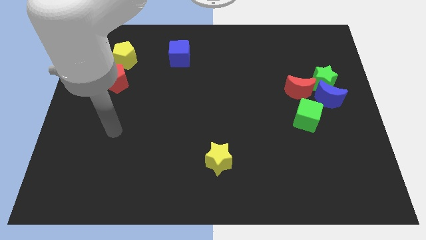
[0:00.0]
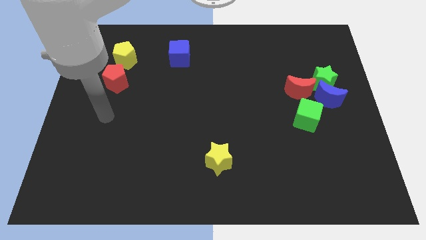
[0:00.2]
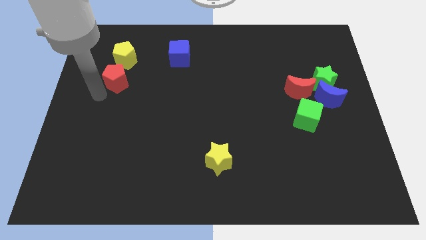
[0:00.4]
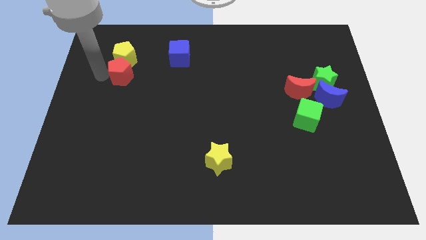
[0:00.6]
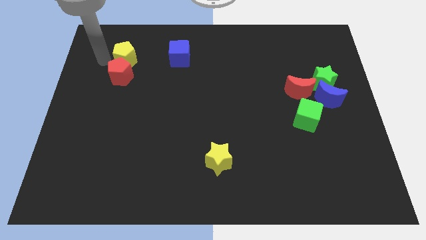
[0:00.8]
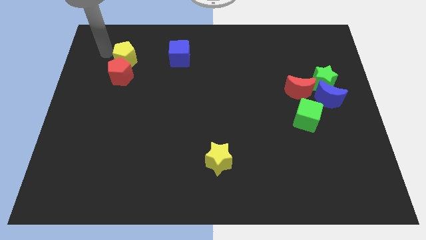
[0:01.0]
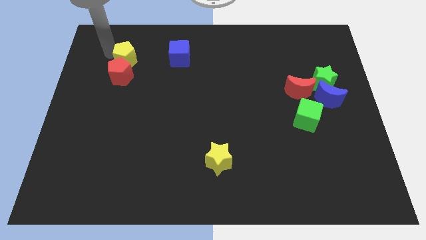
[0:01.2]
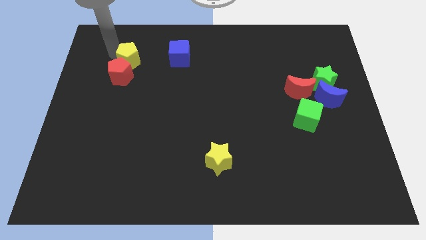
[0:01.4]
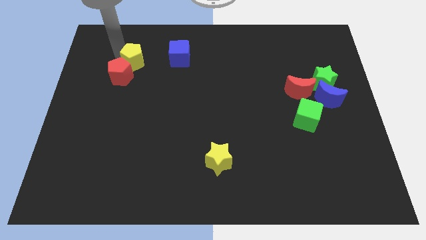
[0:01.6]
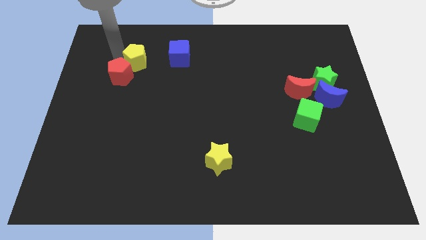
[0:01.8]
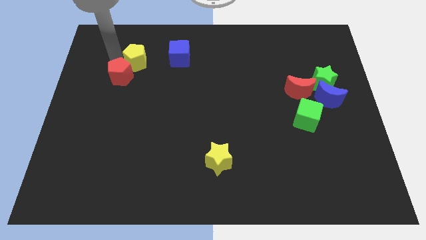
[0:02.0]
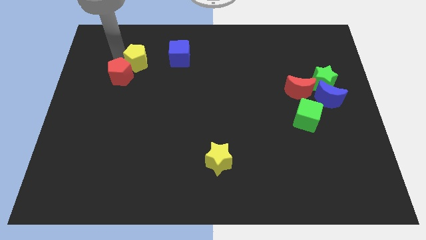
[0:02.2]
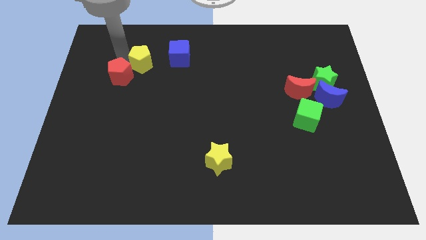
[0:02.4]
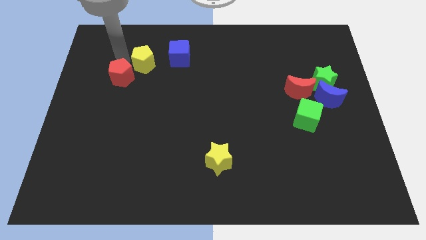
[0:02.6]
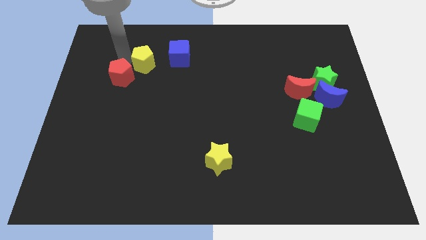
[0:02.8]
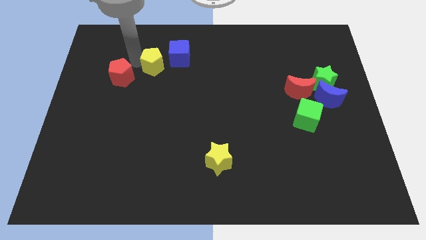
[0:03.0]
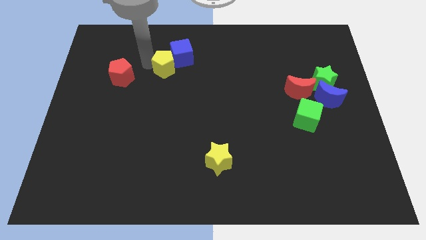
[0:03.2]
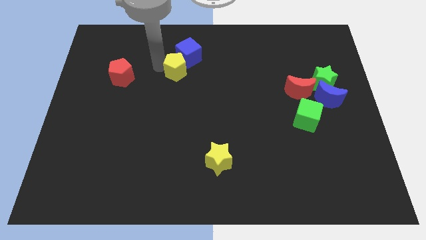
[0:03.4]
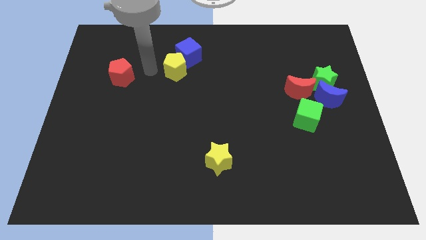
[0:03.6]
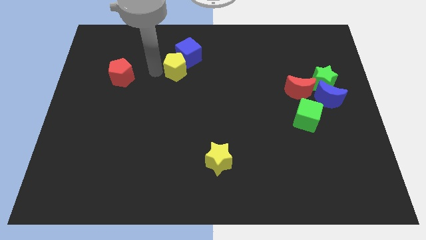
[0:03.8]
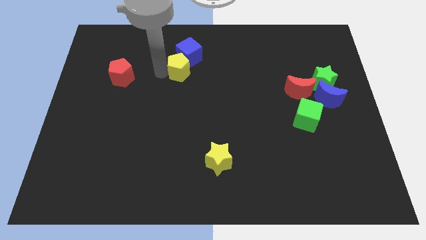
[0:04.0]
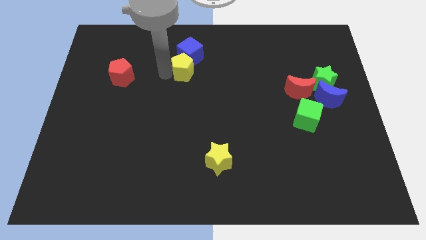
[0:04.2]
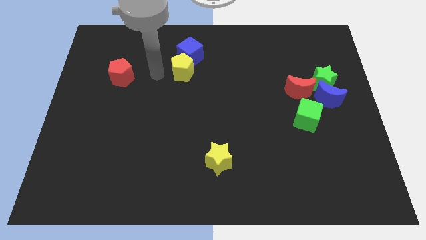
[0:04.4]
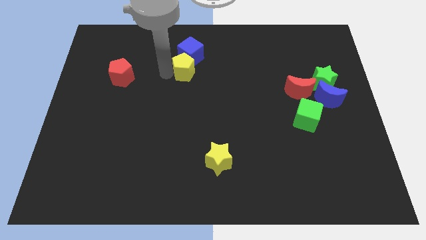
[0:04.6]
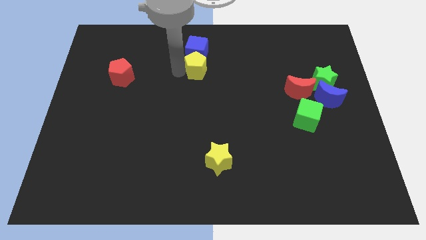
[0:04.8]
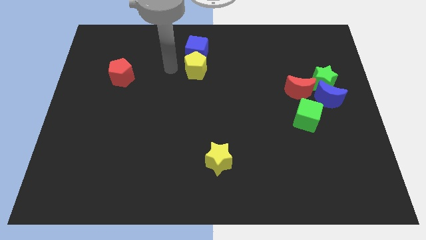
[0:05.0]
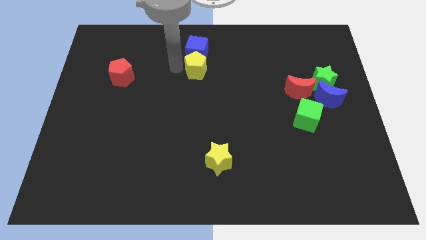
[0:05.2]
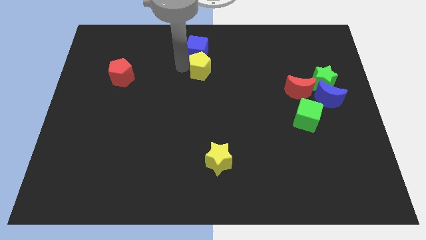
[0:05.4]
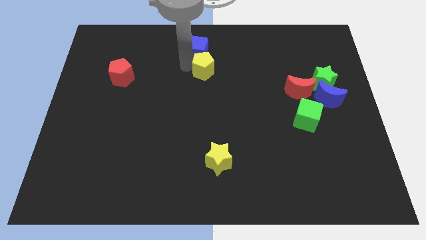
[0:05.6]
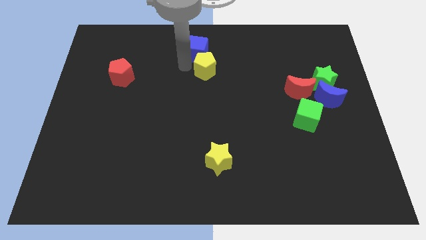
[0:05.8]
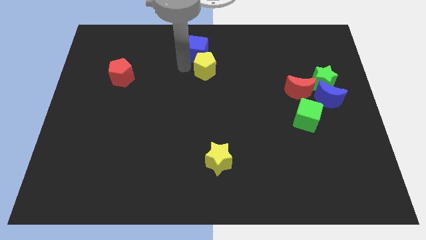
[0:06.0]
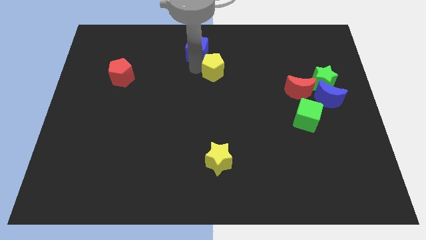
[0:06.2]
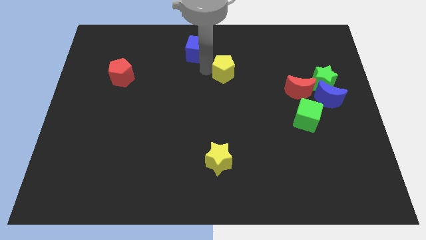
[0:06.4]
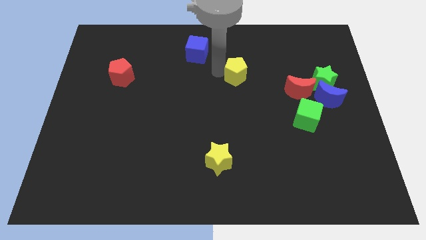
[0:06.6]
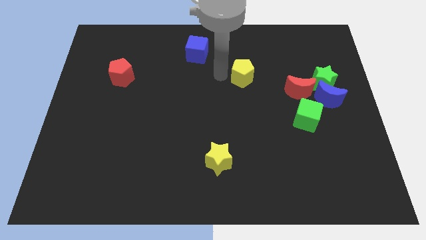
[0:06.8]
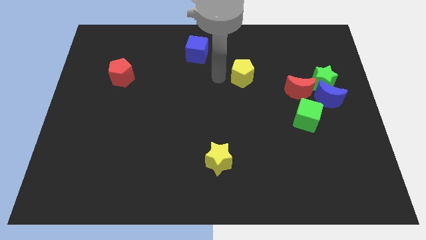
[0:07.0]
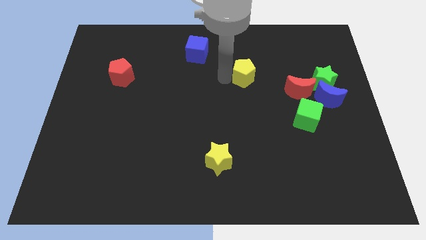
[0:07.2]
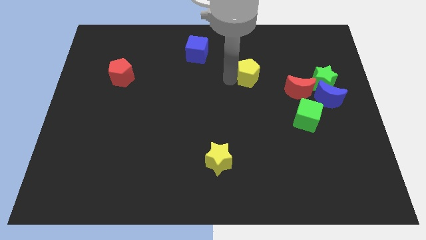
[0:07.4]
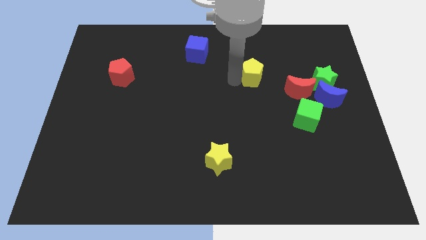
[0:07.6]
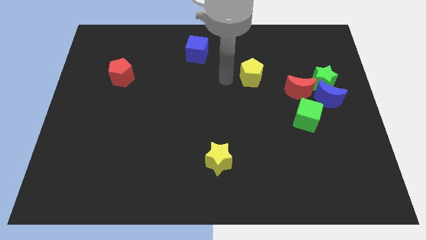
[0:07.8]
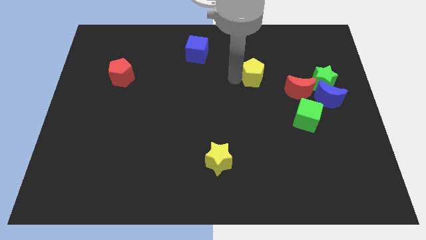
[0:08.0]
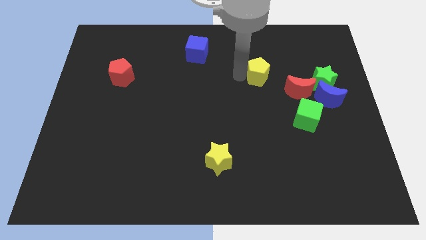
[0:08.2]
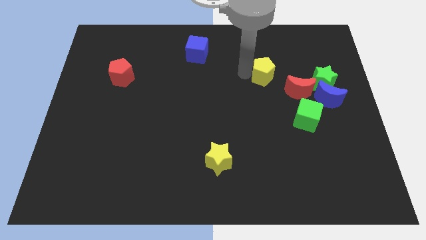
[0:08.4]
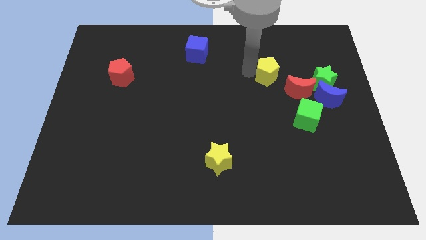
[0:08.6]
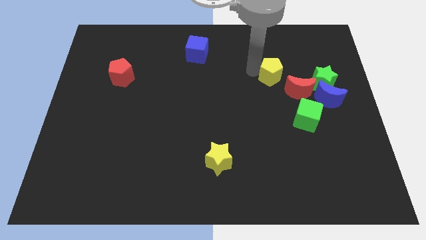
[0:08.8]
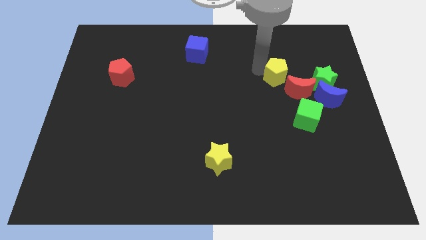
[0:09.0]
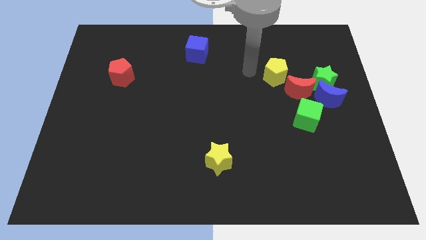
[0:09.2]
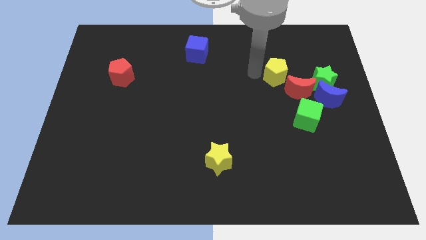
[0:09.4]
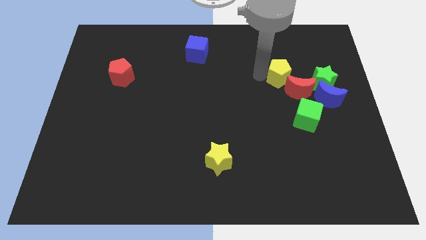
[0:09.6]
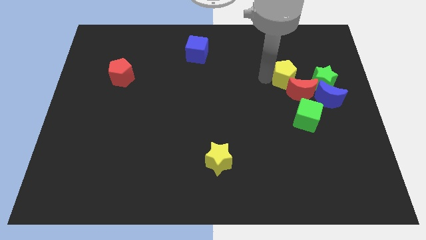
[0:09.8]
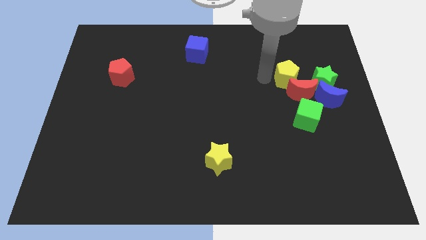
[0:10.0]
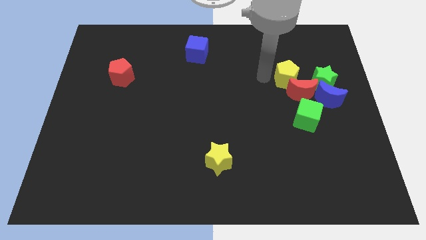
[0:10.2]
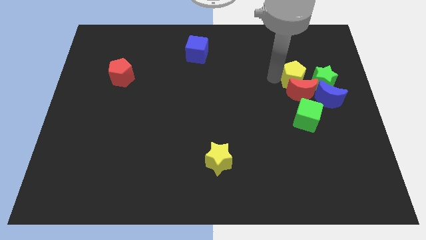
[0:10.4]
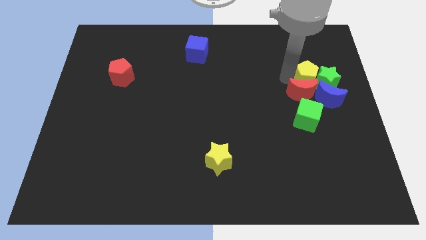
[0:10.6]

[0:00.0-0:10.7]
slide the yellow pentagon next to the green star

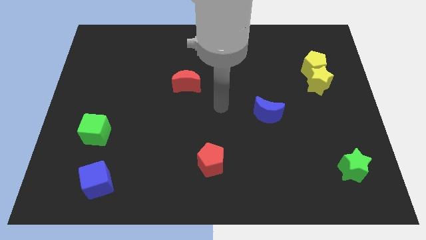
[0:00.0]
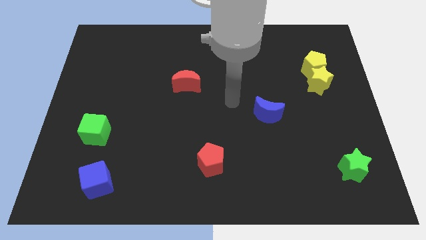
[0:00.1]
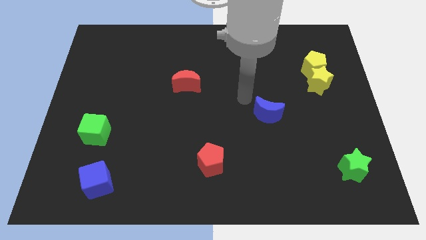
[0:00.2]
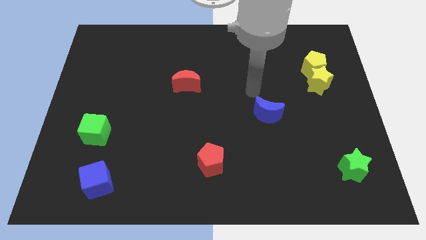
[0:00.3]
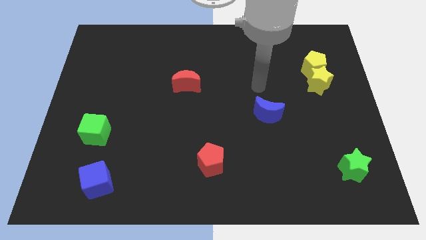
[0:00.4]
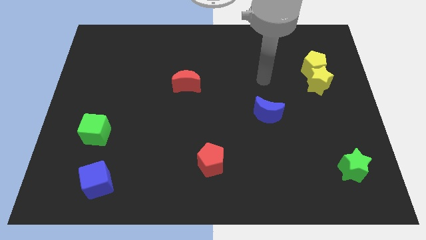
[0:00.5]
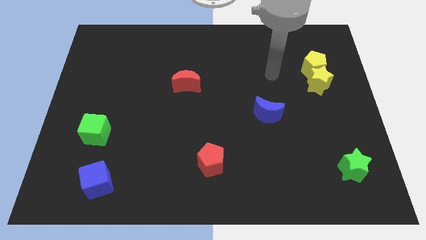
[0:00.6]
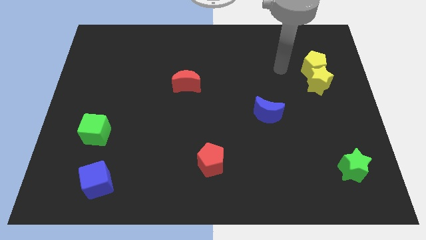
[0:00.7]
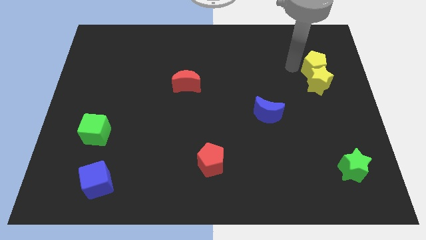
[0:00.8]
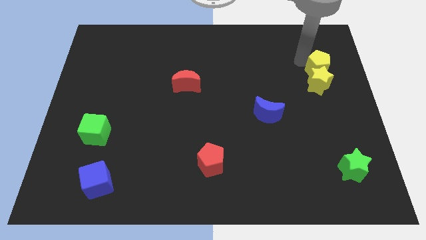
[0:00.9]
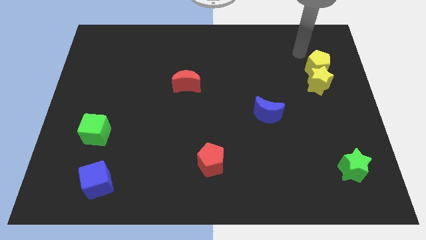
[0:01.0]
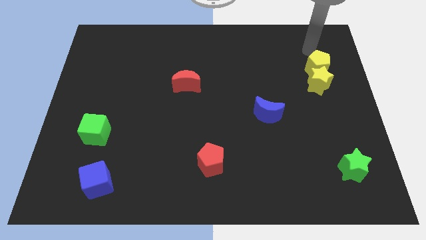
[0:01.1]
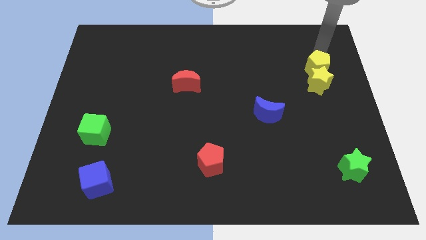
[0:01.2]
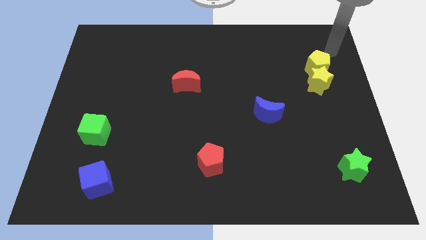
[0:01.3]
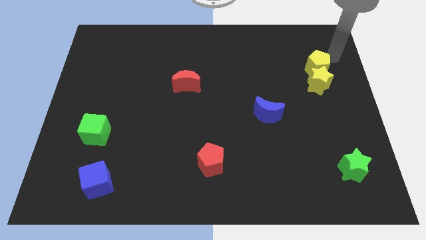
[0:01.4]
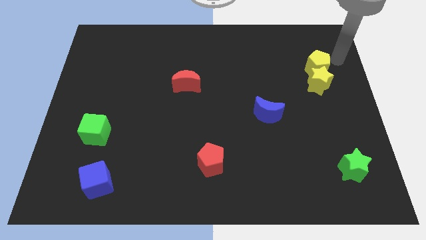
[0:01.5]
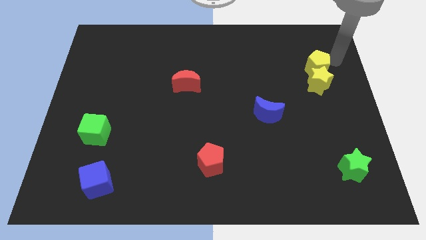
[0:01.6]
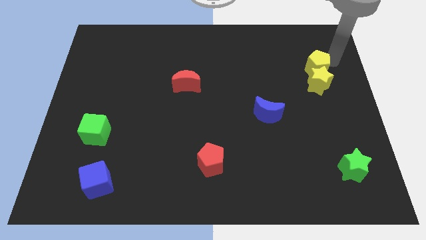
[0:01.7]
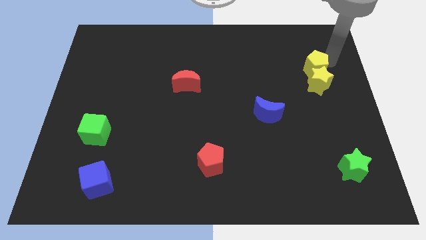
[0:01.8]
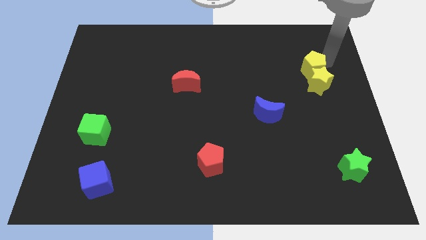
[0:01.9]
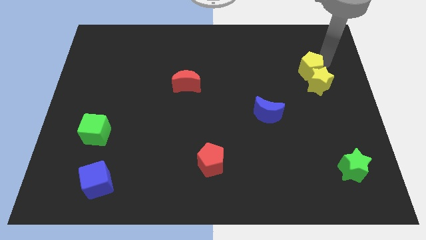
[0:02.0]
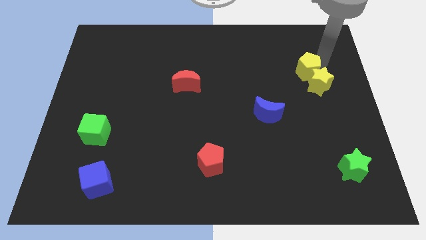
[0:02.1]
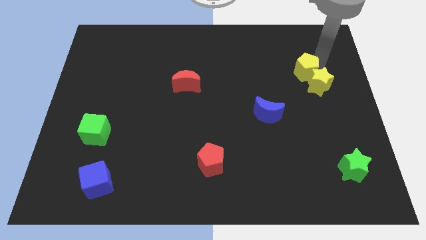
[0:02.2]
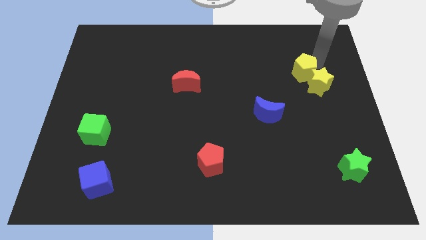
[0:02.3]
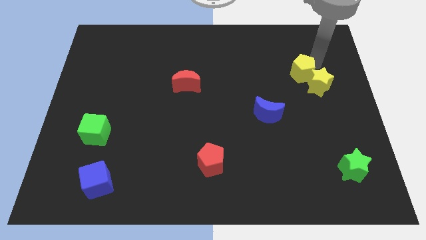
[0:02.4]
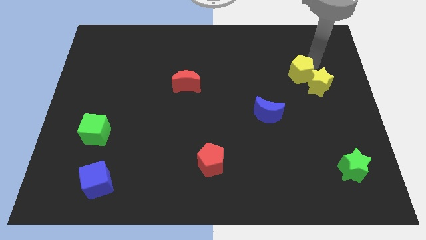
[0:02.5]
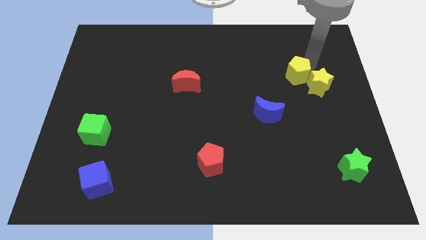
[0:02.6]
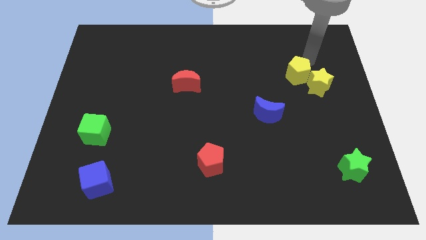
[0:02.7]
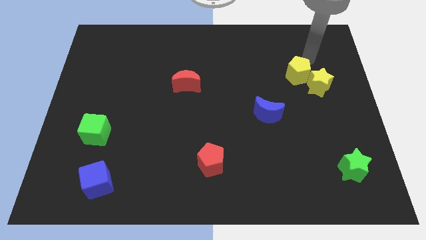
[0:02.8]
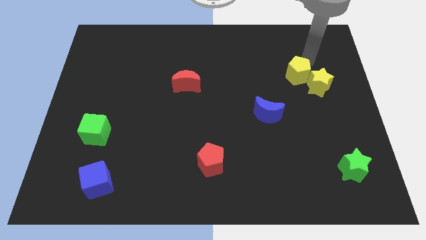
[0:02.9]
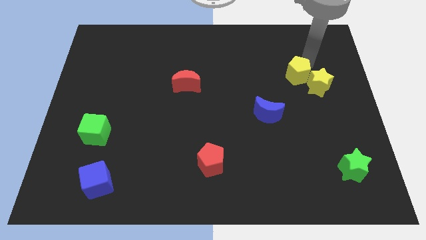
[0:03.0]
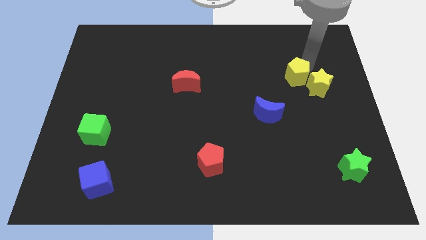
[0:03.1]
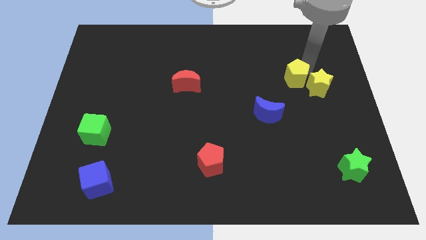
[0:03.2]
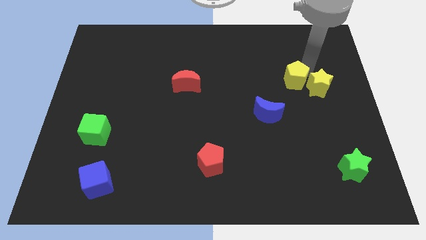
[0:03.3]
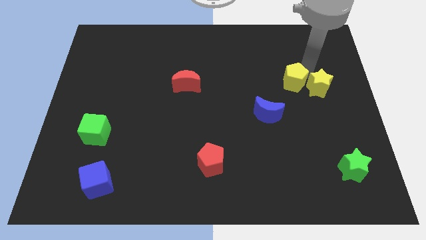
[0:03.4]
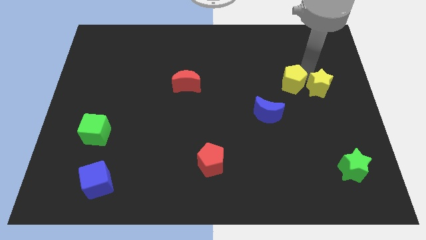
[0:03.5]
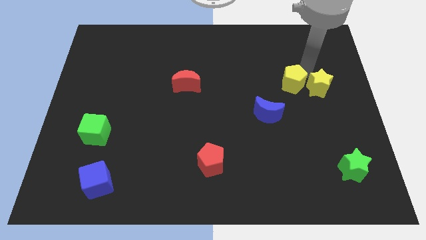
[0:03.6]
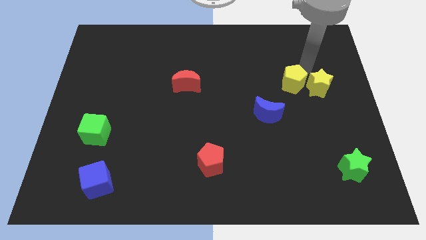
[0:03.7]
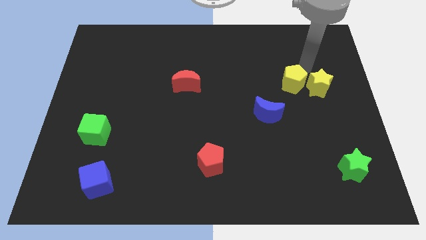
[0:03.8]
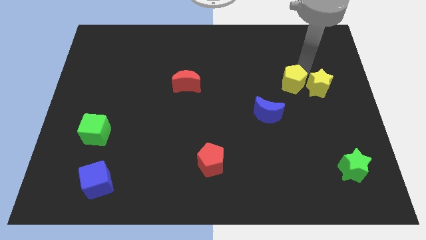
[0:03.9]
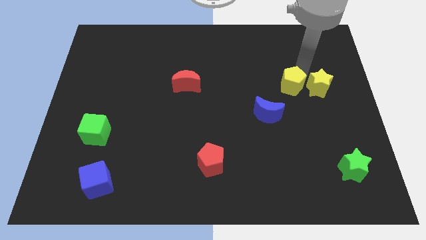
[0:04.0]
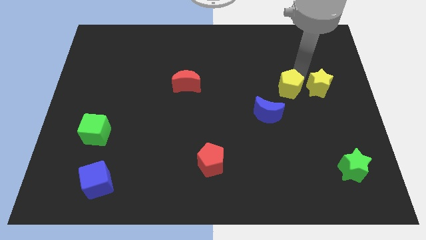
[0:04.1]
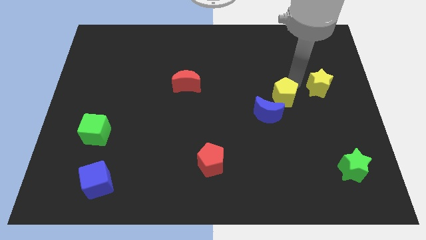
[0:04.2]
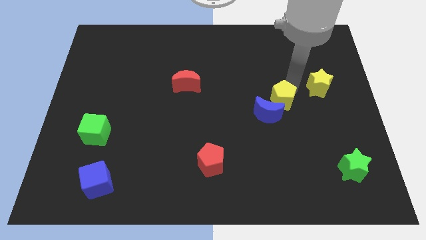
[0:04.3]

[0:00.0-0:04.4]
put the yellow pentagon to the blue moon
